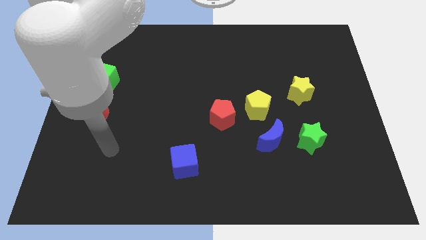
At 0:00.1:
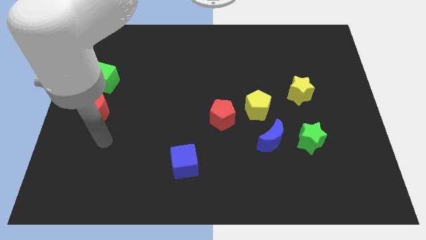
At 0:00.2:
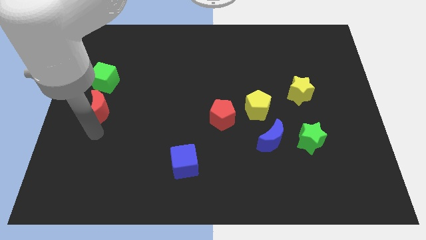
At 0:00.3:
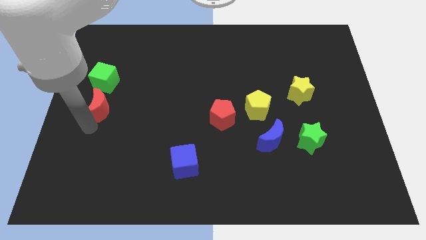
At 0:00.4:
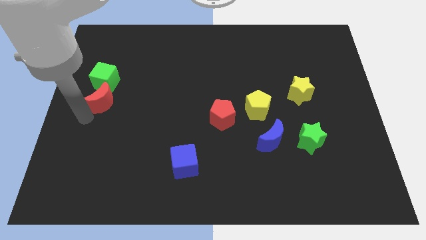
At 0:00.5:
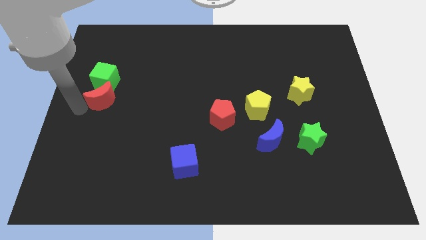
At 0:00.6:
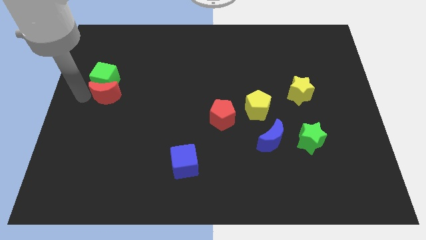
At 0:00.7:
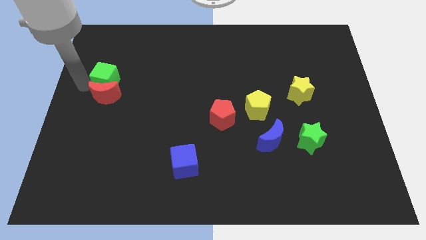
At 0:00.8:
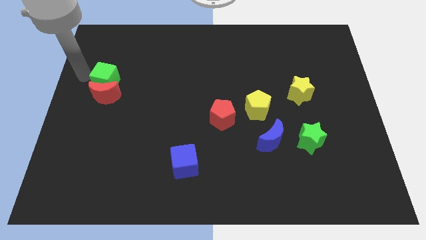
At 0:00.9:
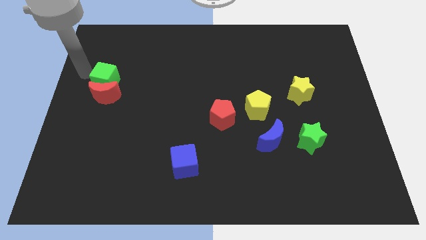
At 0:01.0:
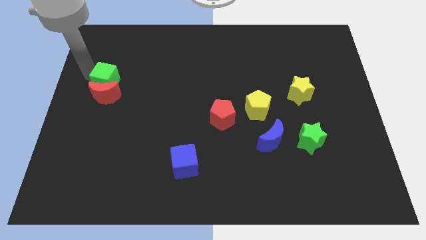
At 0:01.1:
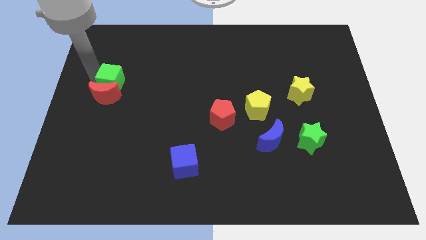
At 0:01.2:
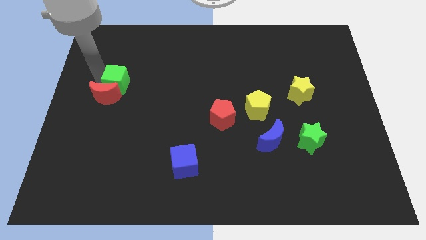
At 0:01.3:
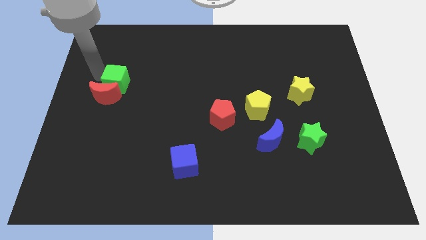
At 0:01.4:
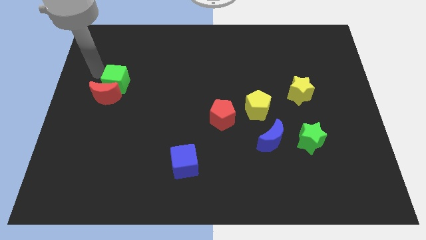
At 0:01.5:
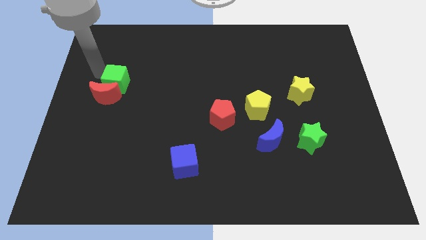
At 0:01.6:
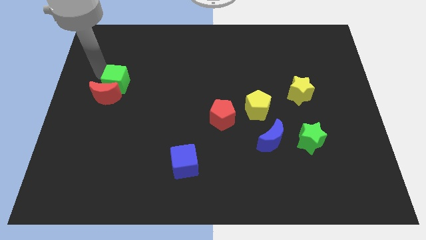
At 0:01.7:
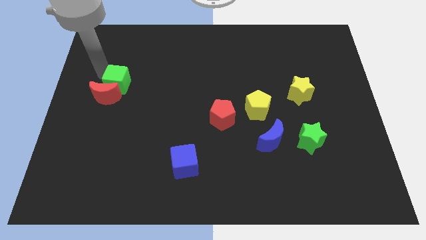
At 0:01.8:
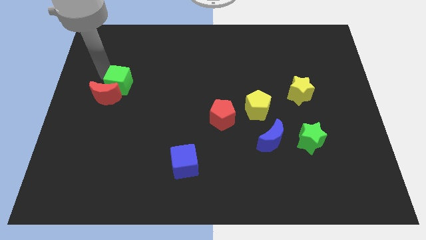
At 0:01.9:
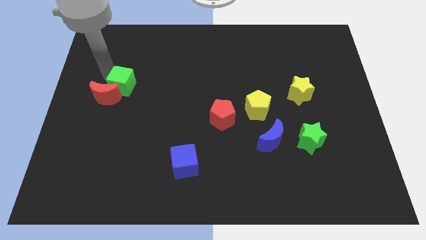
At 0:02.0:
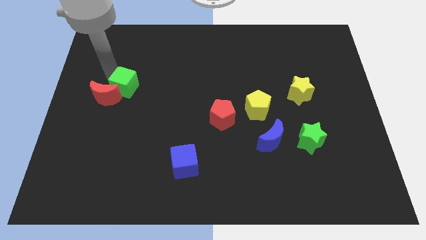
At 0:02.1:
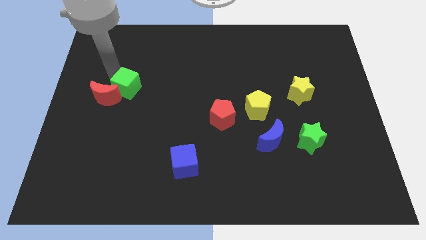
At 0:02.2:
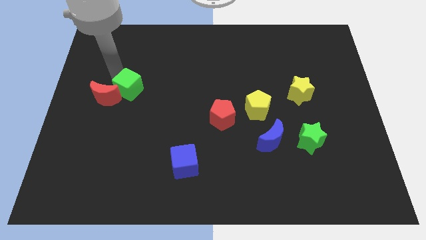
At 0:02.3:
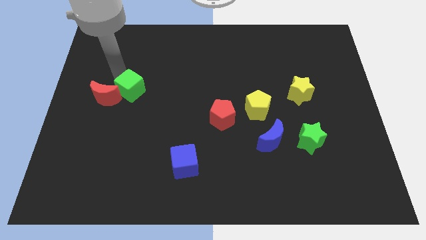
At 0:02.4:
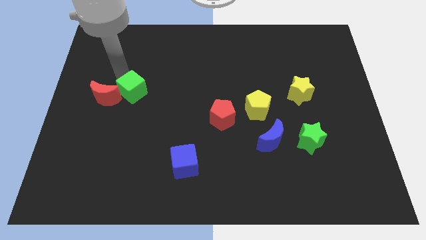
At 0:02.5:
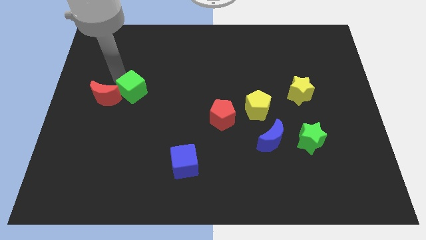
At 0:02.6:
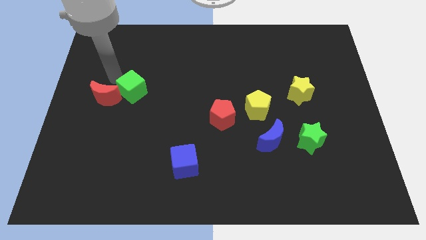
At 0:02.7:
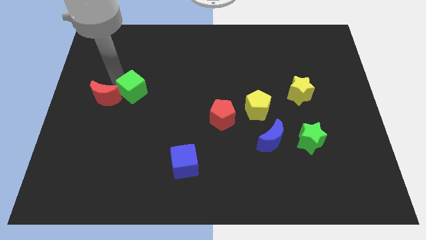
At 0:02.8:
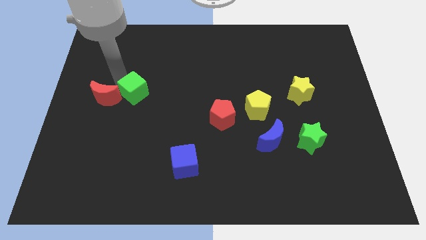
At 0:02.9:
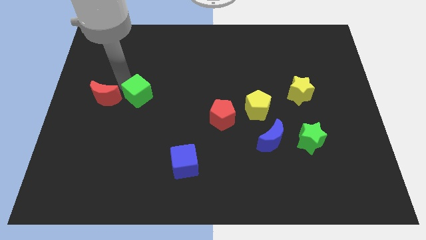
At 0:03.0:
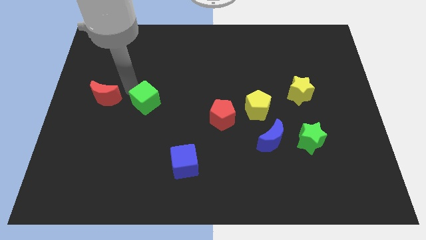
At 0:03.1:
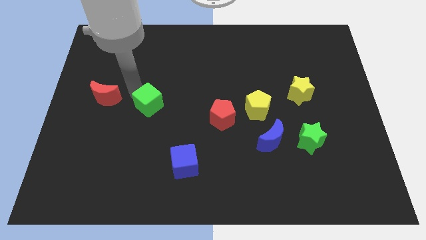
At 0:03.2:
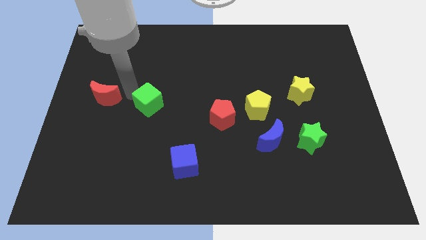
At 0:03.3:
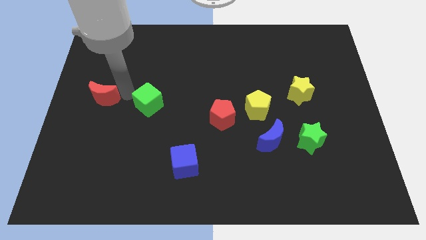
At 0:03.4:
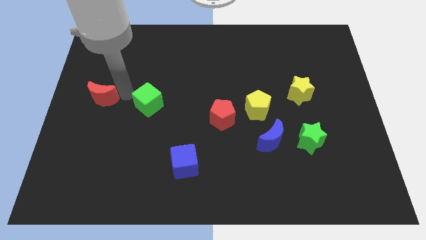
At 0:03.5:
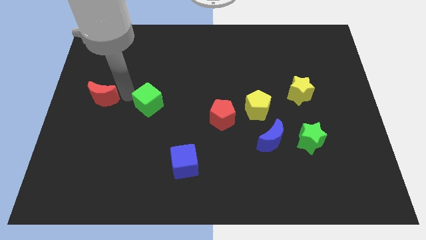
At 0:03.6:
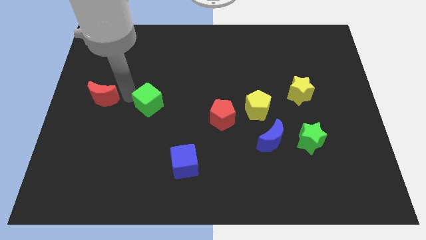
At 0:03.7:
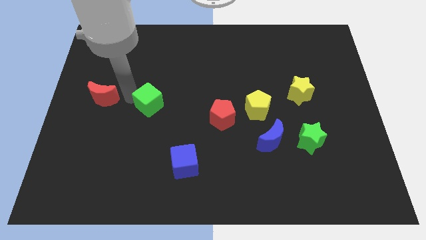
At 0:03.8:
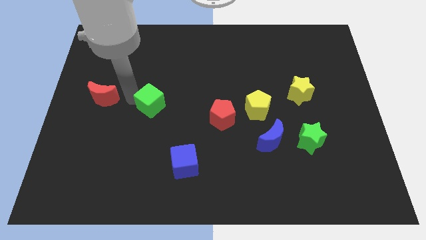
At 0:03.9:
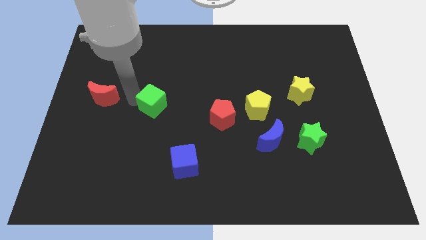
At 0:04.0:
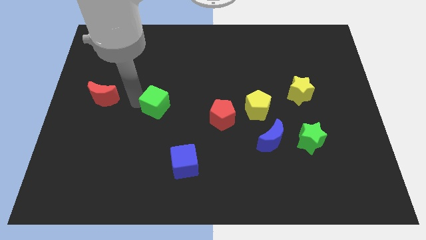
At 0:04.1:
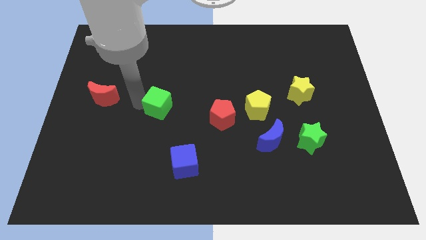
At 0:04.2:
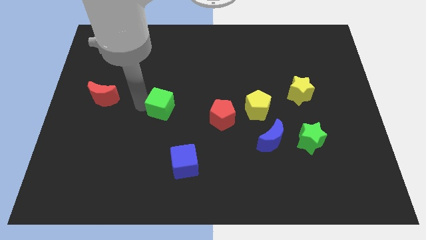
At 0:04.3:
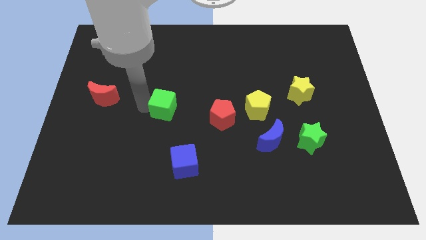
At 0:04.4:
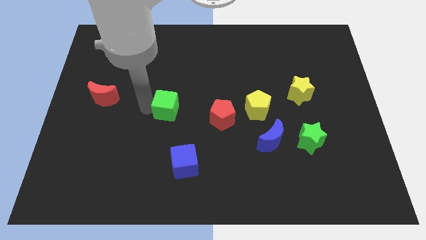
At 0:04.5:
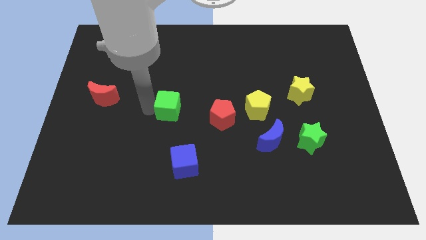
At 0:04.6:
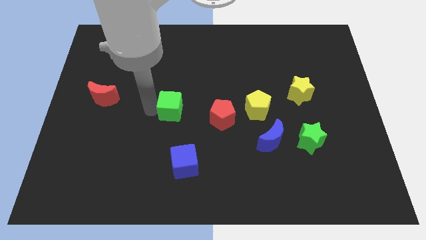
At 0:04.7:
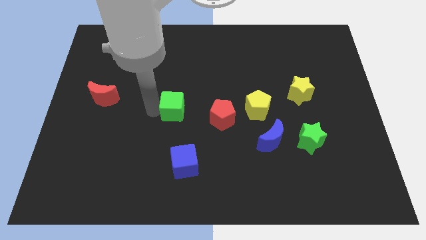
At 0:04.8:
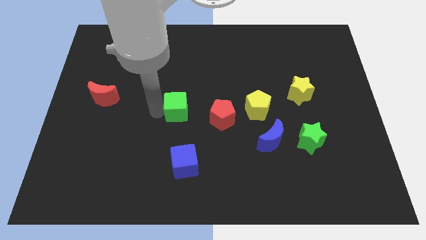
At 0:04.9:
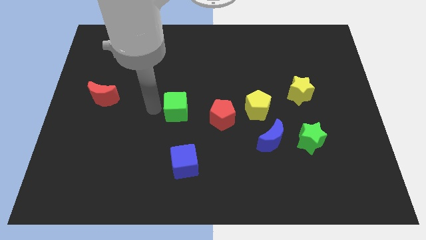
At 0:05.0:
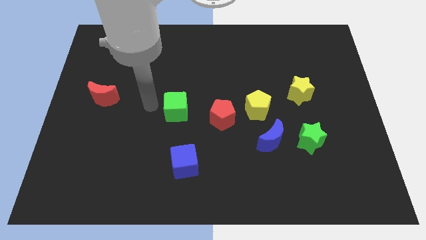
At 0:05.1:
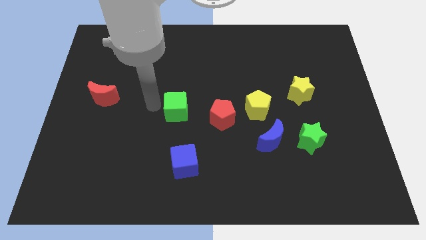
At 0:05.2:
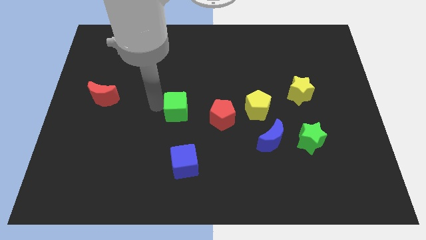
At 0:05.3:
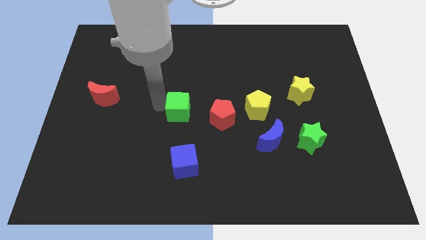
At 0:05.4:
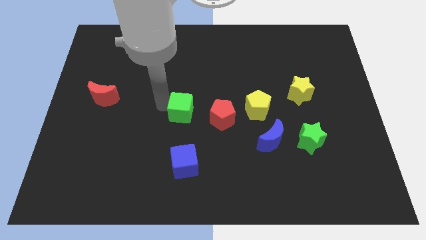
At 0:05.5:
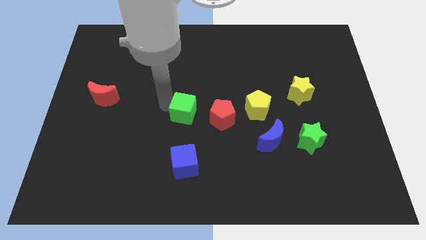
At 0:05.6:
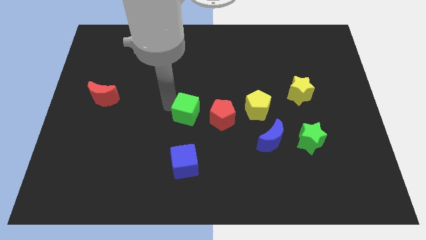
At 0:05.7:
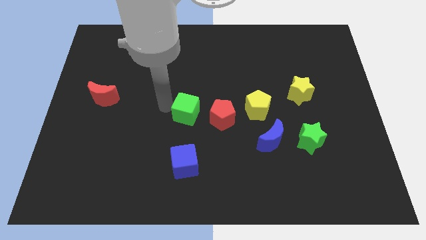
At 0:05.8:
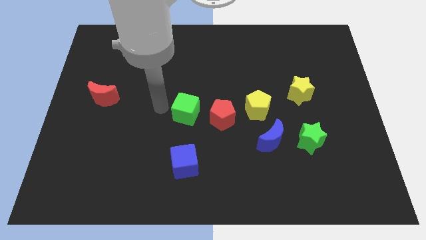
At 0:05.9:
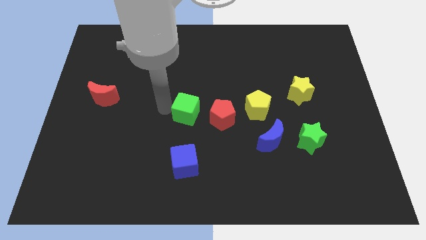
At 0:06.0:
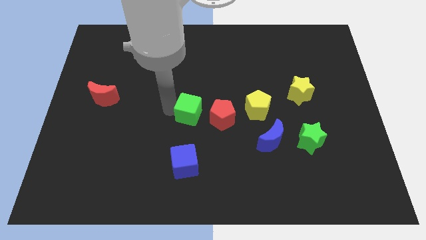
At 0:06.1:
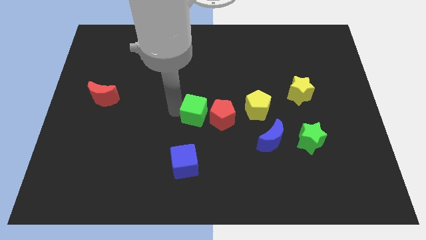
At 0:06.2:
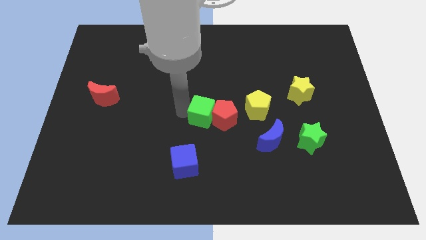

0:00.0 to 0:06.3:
put the green cube close to the red pentagon

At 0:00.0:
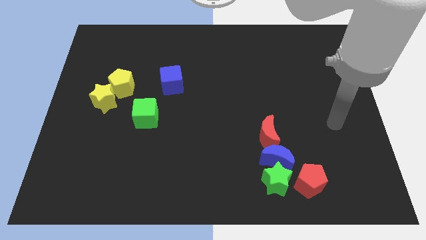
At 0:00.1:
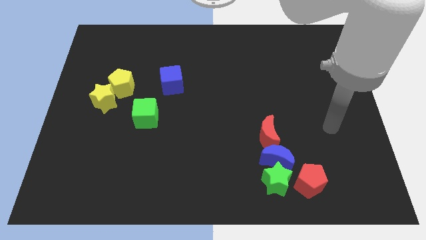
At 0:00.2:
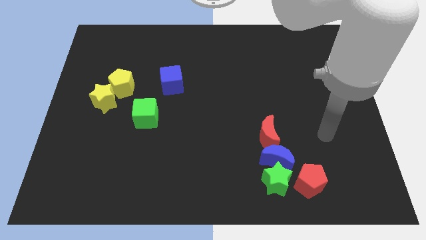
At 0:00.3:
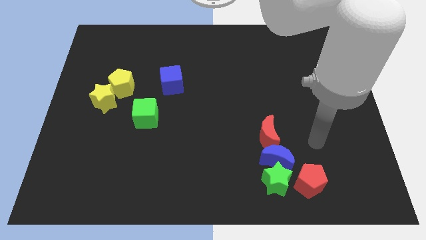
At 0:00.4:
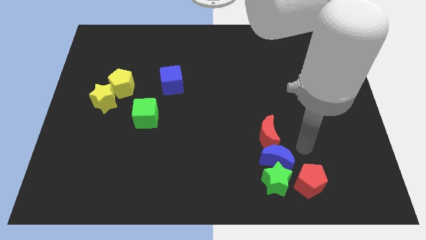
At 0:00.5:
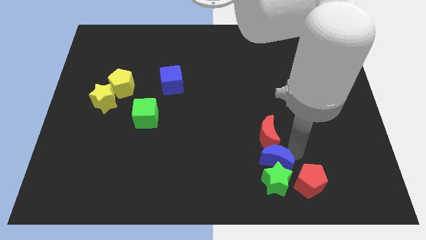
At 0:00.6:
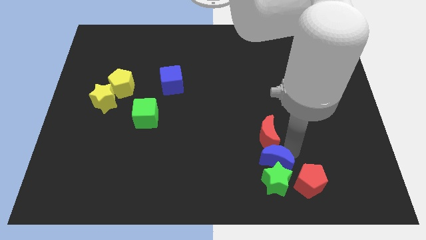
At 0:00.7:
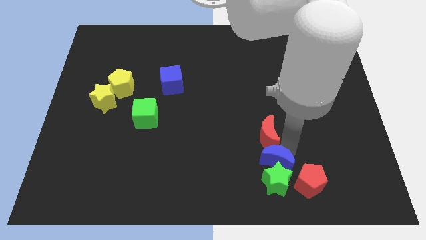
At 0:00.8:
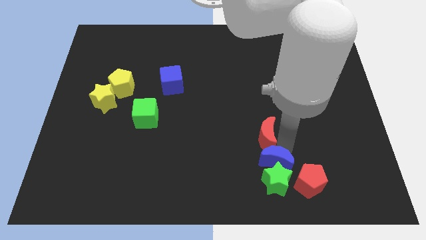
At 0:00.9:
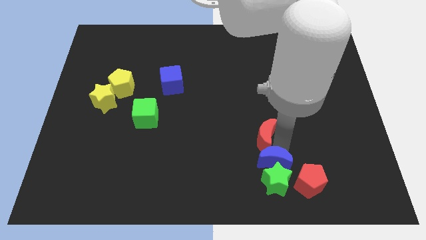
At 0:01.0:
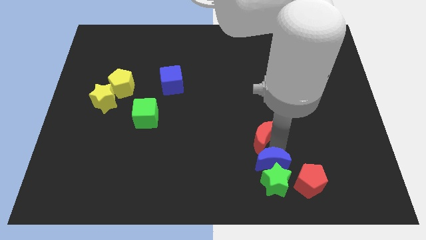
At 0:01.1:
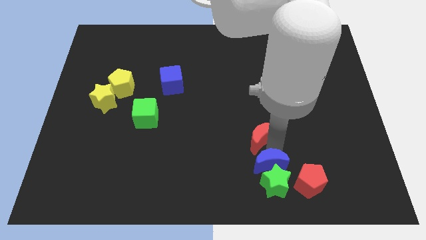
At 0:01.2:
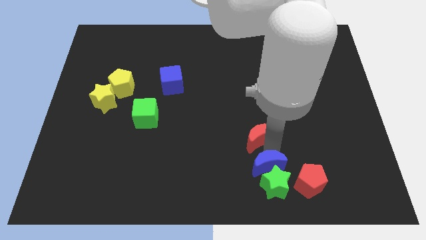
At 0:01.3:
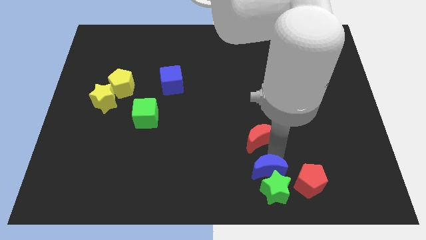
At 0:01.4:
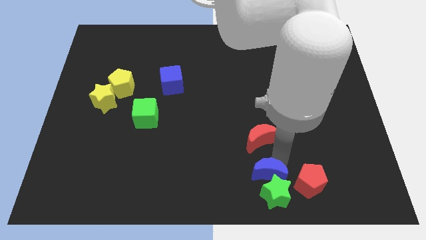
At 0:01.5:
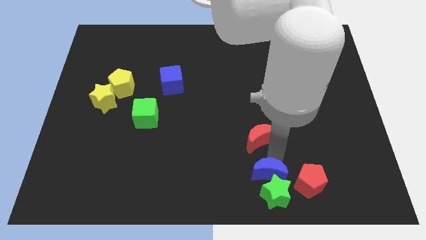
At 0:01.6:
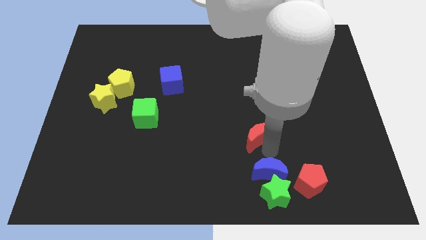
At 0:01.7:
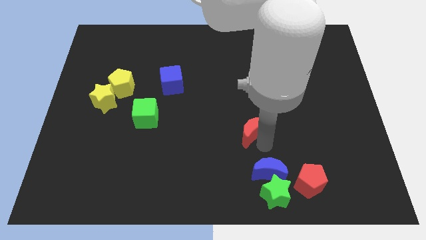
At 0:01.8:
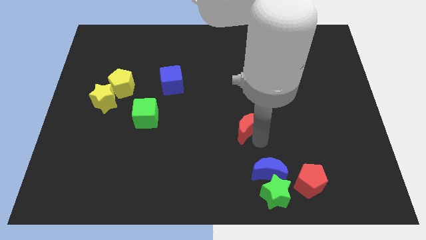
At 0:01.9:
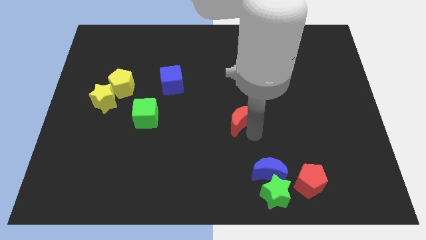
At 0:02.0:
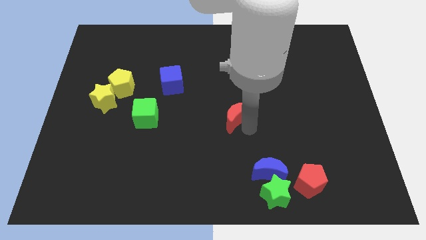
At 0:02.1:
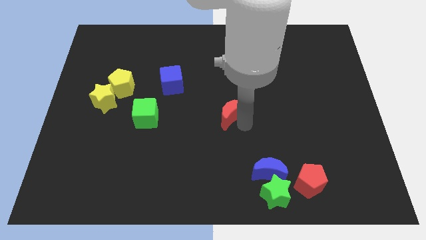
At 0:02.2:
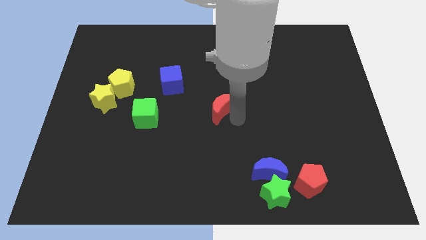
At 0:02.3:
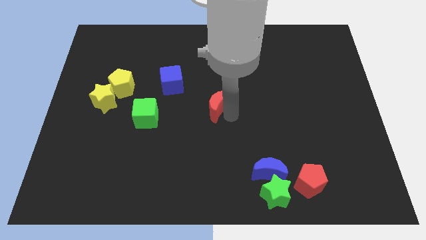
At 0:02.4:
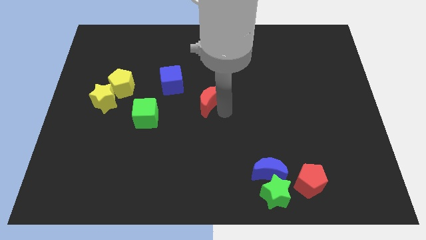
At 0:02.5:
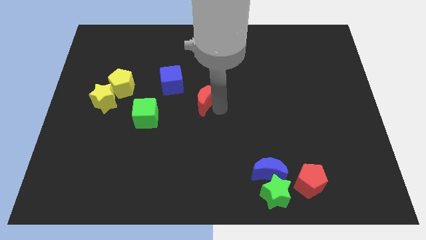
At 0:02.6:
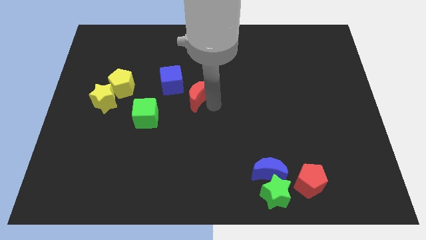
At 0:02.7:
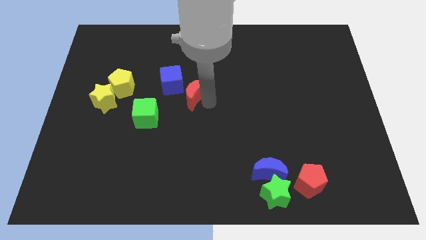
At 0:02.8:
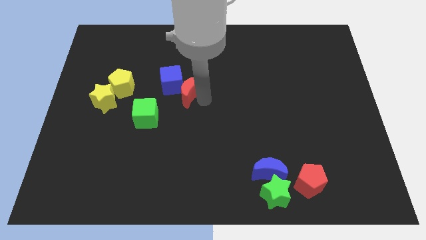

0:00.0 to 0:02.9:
push the red moon close to the blue cube
